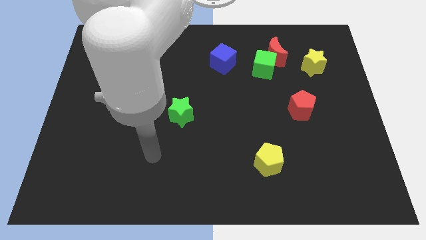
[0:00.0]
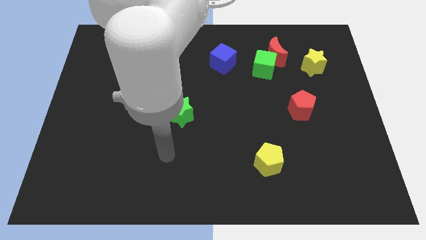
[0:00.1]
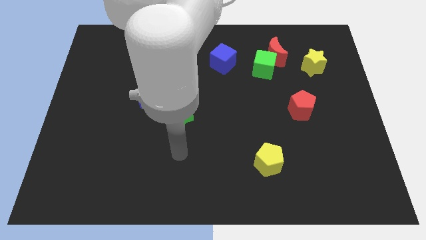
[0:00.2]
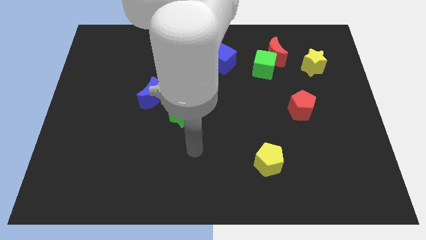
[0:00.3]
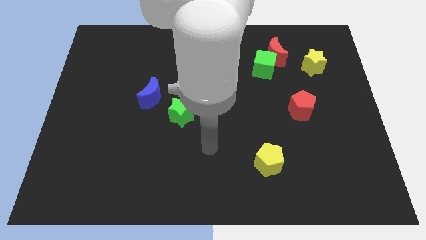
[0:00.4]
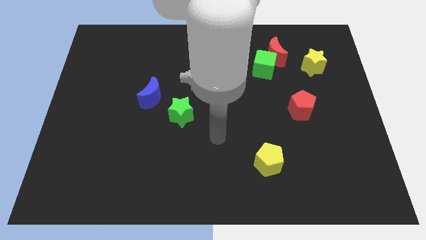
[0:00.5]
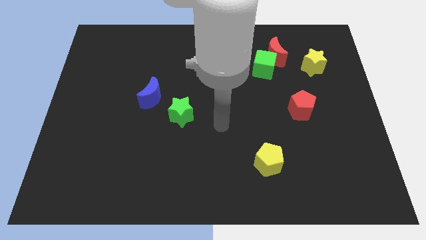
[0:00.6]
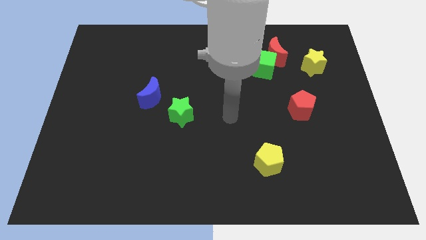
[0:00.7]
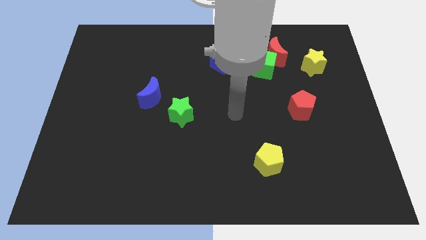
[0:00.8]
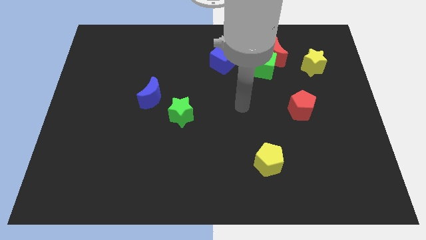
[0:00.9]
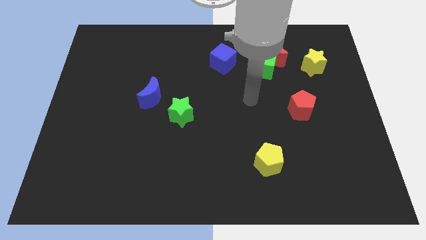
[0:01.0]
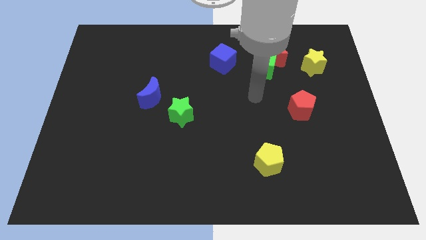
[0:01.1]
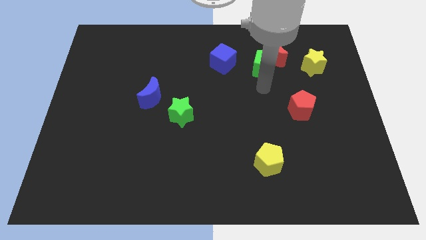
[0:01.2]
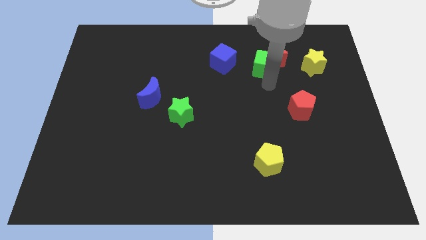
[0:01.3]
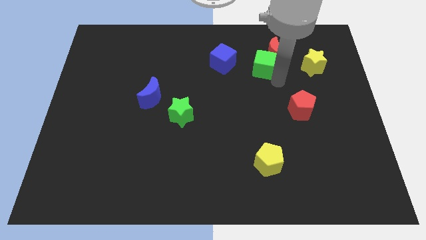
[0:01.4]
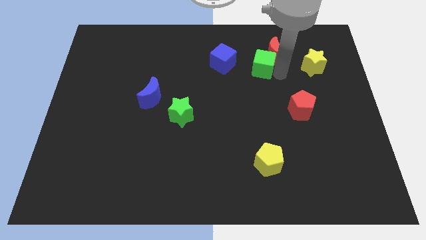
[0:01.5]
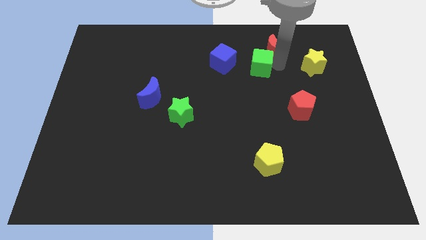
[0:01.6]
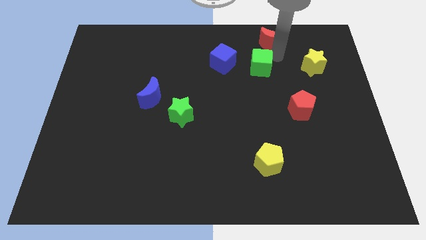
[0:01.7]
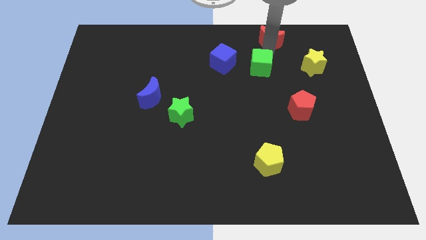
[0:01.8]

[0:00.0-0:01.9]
move the green cube away from the red moon

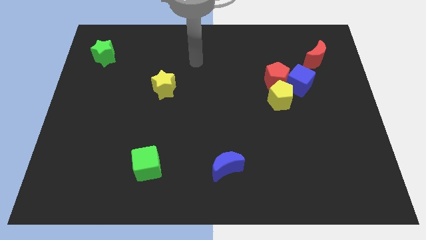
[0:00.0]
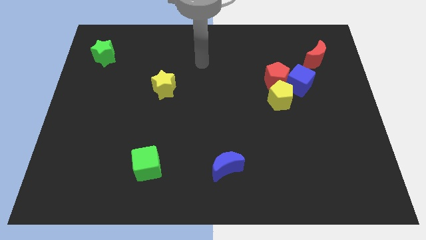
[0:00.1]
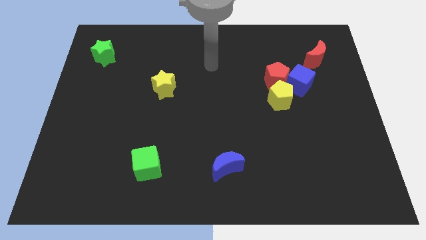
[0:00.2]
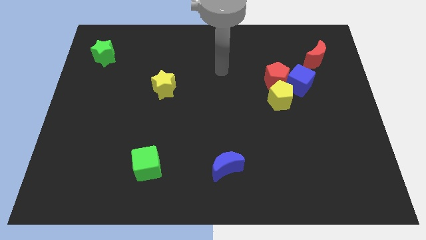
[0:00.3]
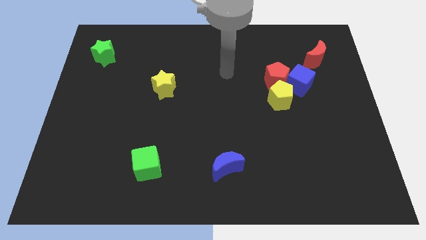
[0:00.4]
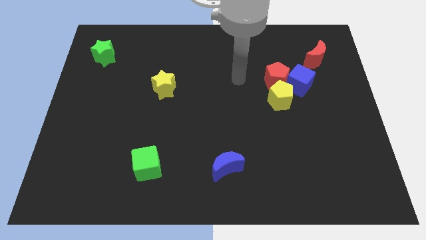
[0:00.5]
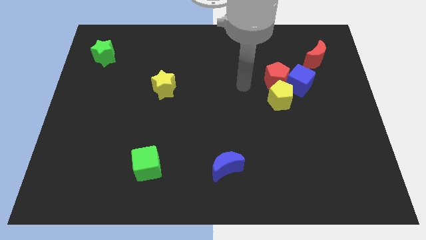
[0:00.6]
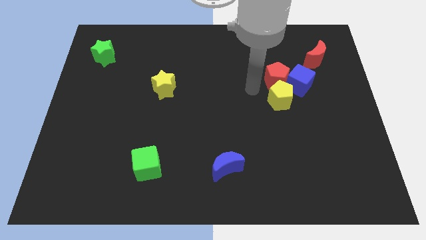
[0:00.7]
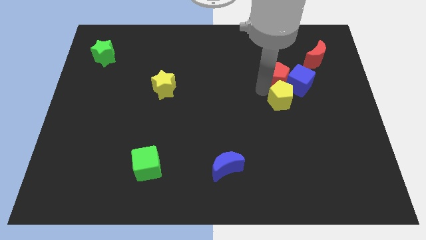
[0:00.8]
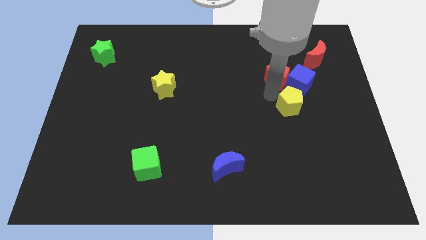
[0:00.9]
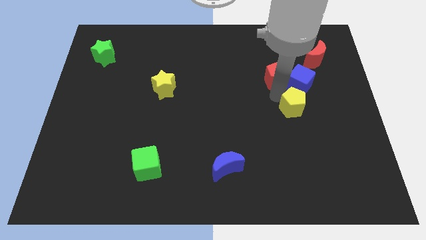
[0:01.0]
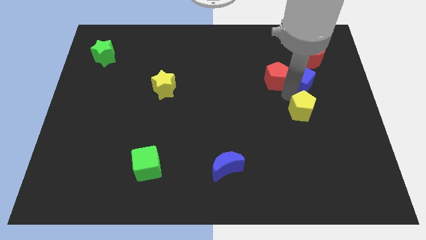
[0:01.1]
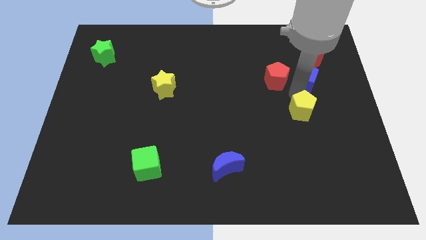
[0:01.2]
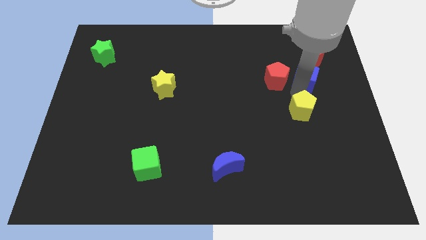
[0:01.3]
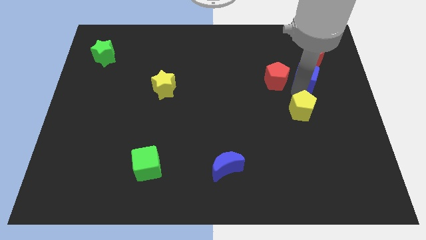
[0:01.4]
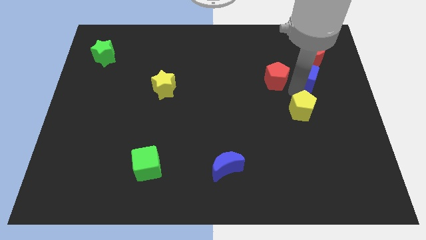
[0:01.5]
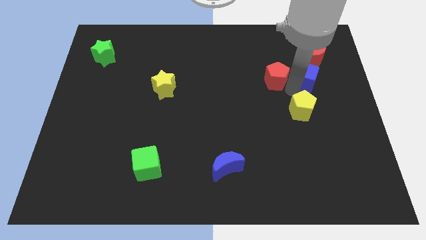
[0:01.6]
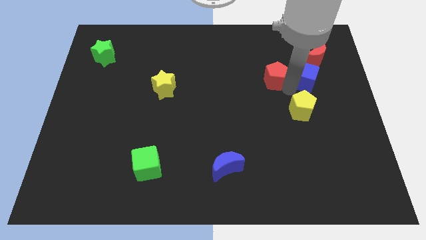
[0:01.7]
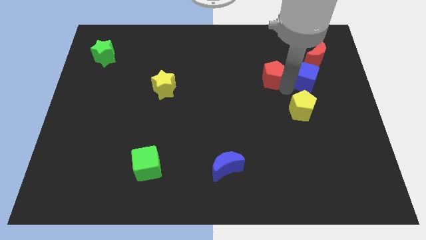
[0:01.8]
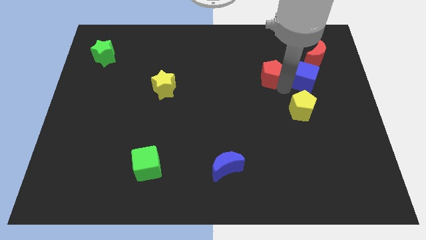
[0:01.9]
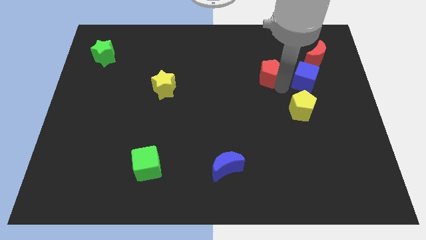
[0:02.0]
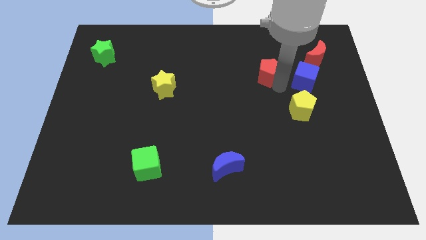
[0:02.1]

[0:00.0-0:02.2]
separate the red pentagon from the blue cube and yellow pentagon

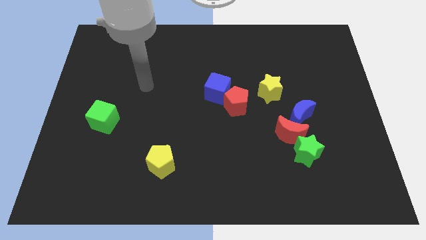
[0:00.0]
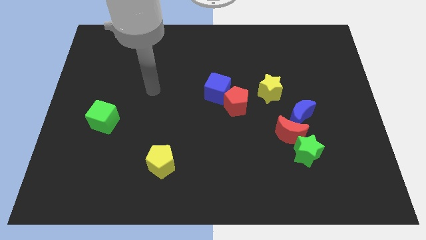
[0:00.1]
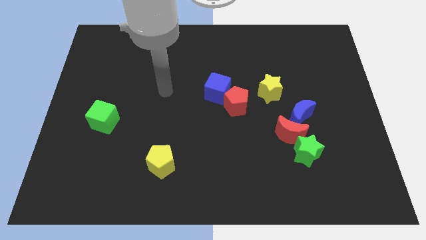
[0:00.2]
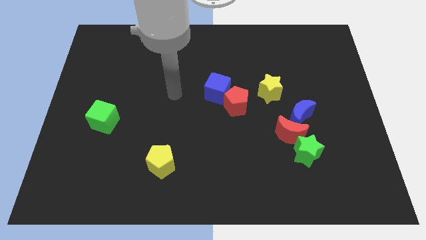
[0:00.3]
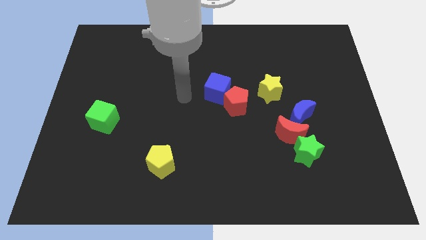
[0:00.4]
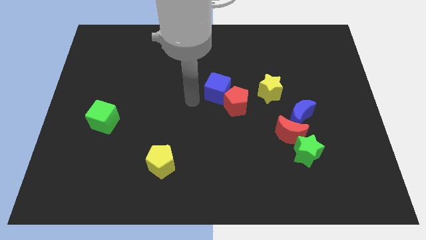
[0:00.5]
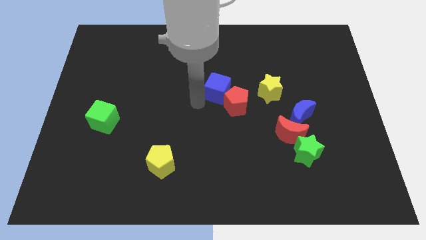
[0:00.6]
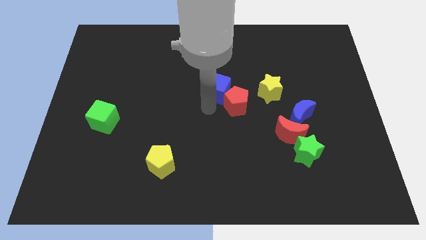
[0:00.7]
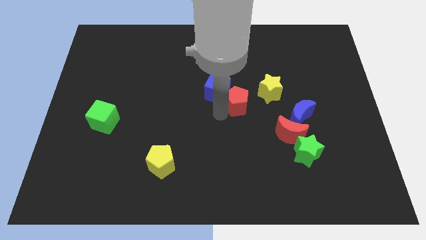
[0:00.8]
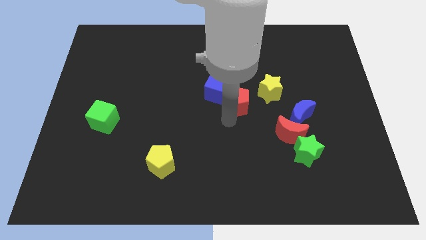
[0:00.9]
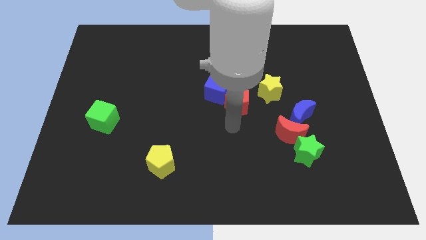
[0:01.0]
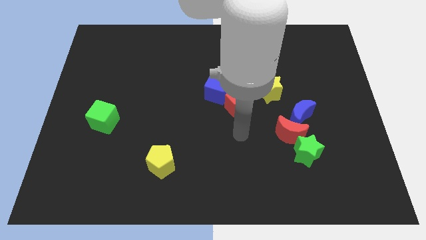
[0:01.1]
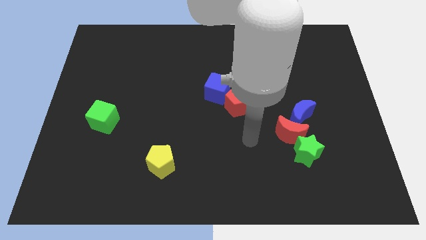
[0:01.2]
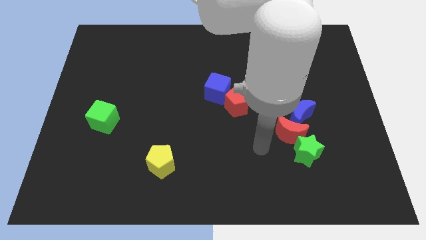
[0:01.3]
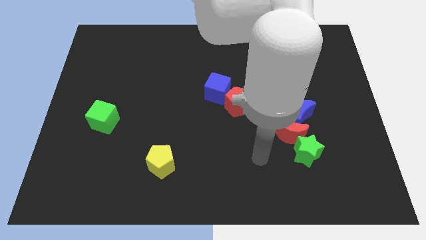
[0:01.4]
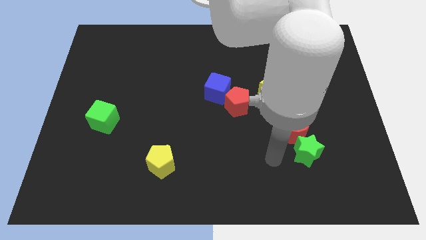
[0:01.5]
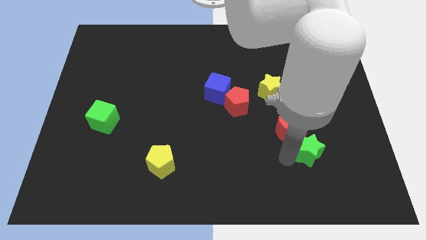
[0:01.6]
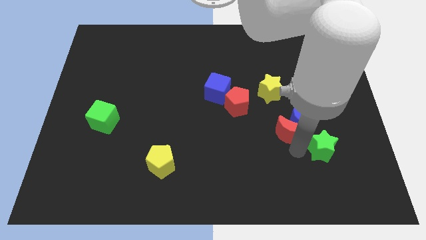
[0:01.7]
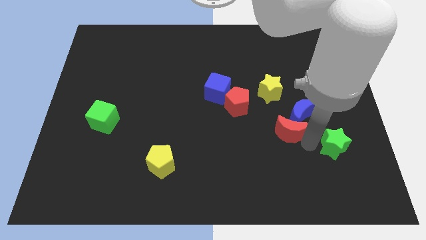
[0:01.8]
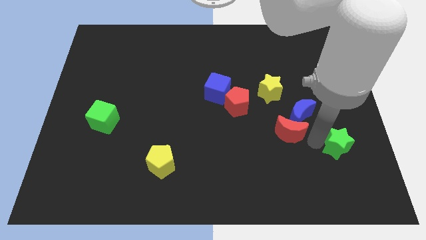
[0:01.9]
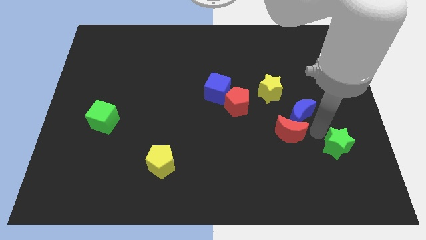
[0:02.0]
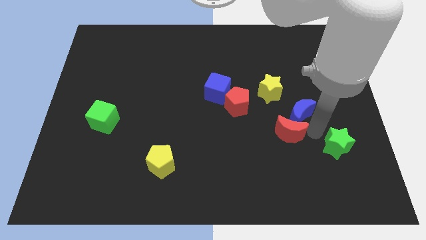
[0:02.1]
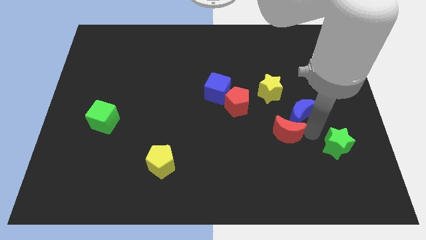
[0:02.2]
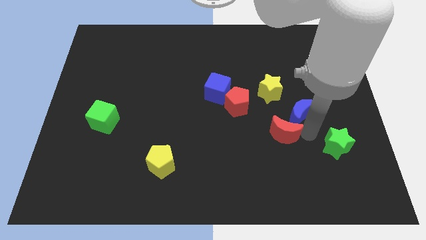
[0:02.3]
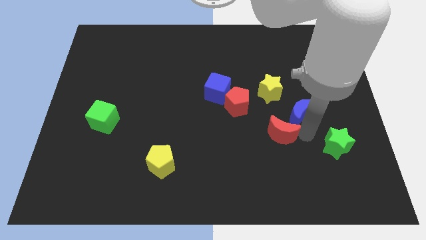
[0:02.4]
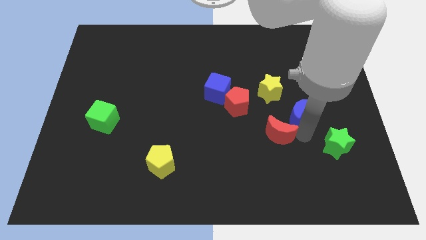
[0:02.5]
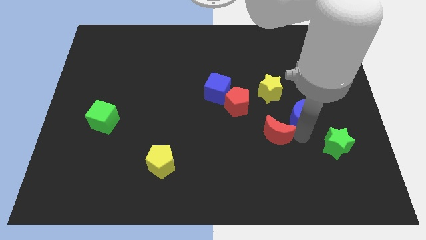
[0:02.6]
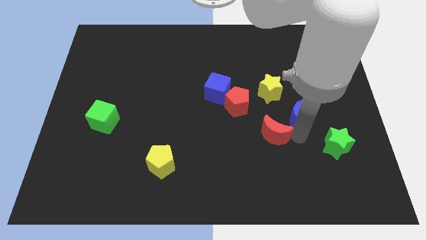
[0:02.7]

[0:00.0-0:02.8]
pull the red moon apart from the green star and blue moon

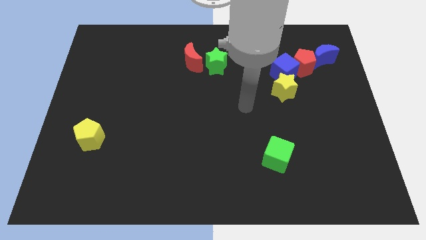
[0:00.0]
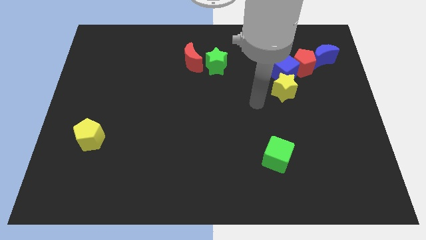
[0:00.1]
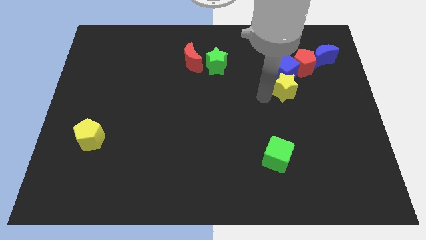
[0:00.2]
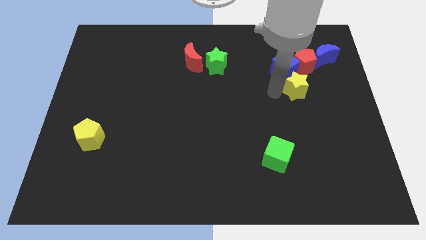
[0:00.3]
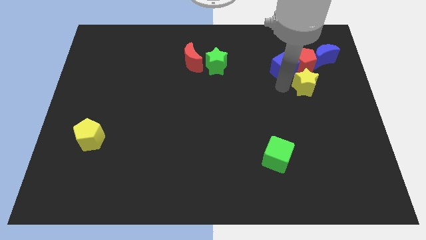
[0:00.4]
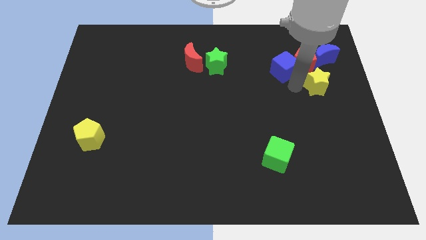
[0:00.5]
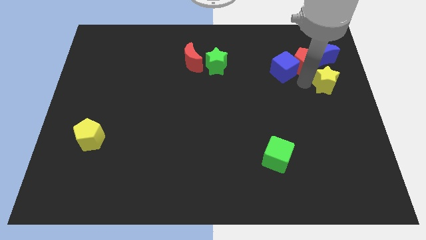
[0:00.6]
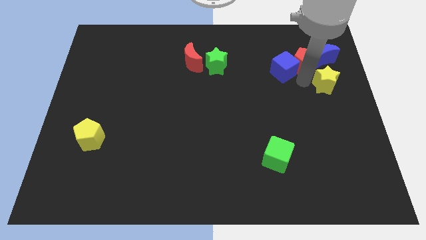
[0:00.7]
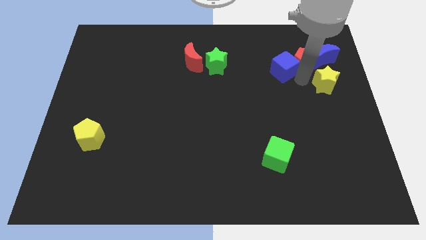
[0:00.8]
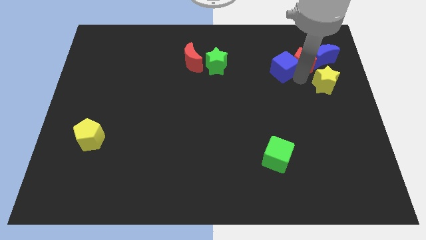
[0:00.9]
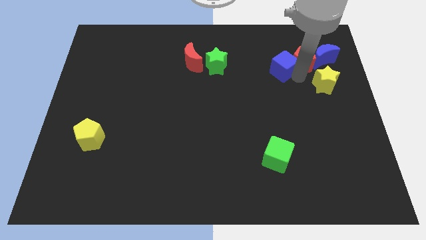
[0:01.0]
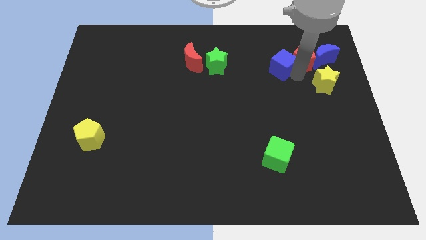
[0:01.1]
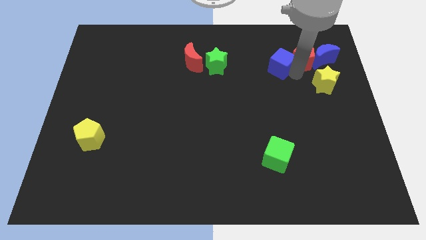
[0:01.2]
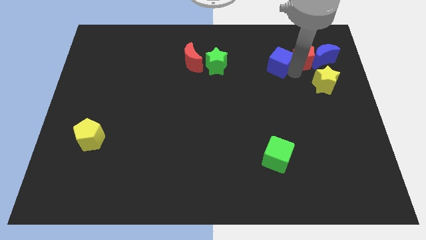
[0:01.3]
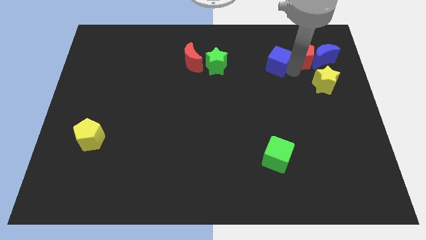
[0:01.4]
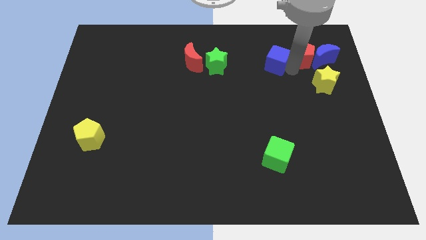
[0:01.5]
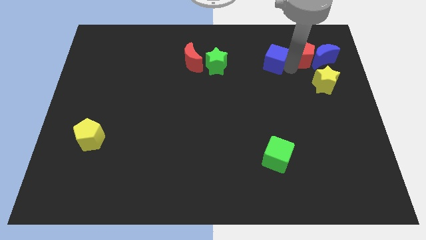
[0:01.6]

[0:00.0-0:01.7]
move the blue cube away from the red pentagon and yellow star

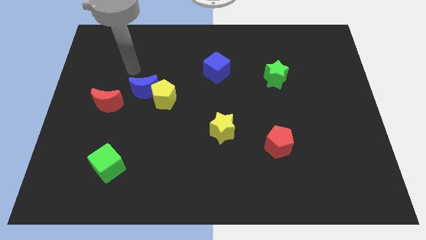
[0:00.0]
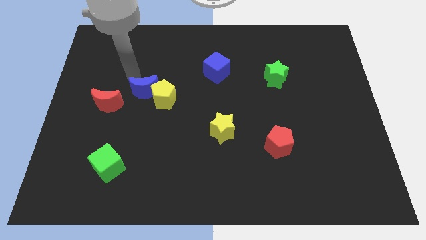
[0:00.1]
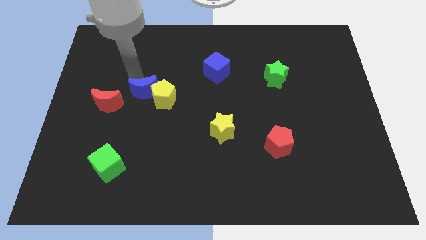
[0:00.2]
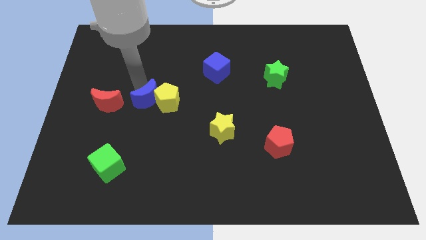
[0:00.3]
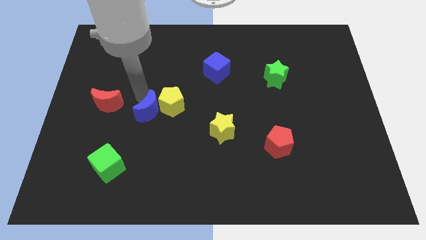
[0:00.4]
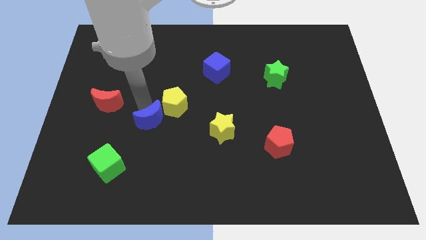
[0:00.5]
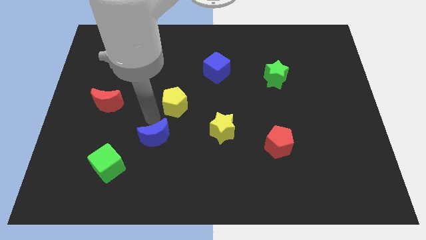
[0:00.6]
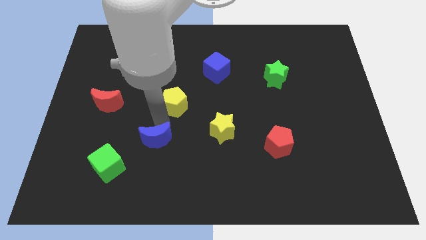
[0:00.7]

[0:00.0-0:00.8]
move the yellow pentagon away from the blue moon
